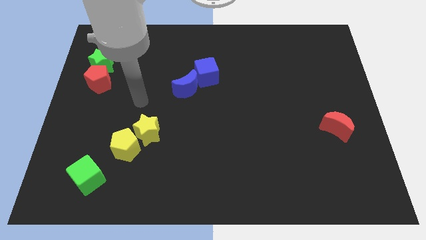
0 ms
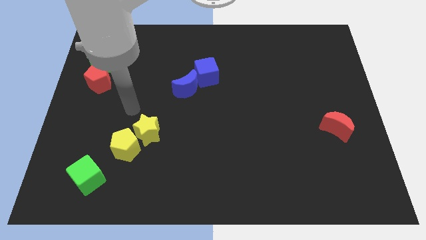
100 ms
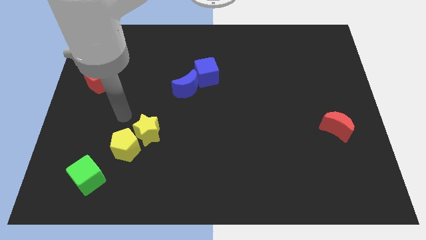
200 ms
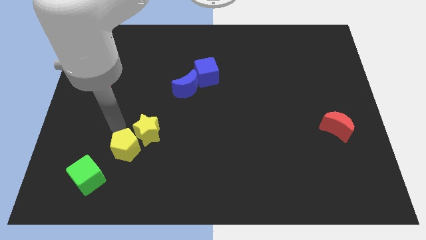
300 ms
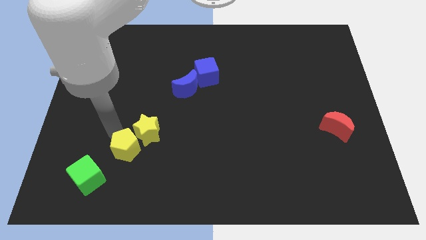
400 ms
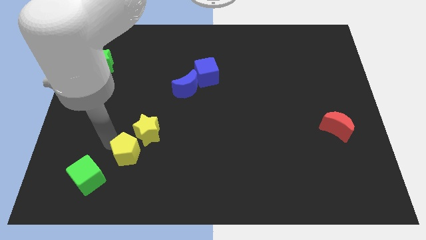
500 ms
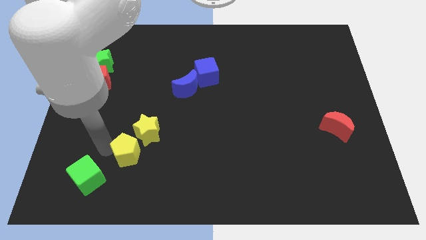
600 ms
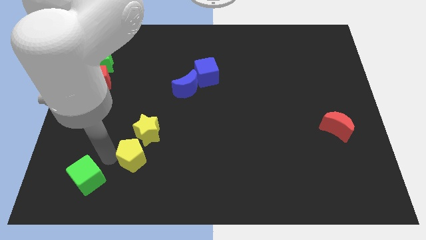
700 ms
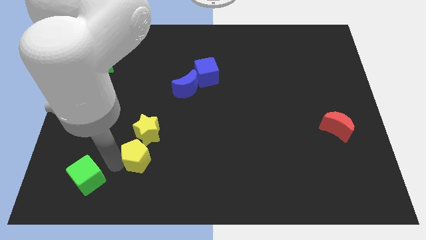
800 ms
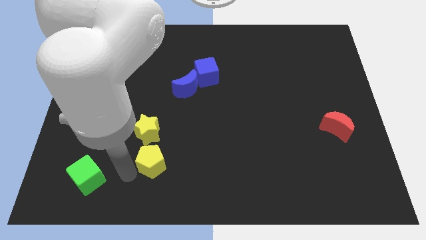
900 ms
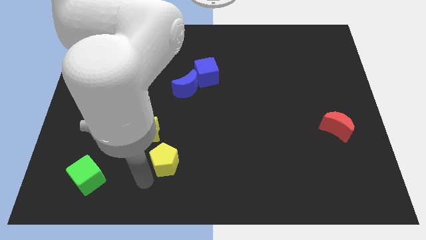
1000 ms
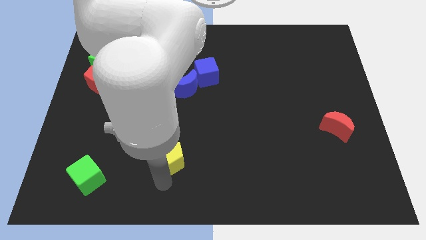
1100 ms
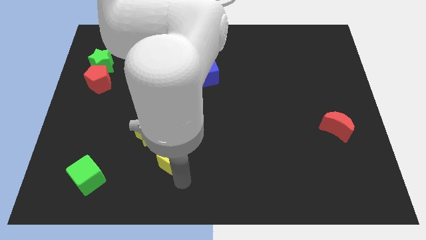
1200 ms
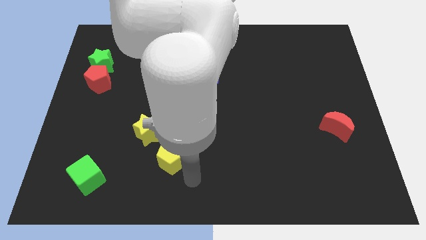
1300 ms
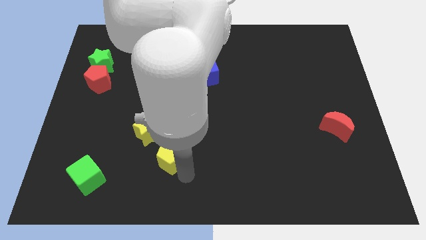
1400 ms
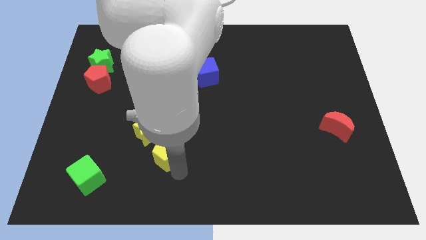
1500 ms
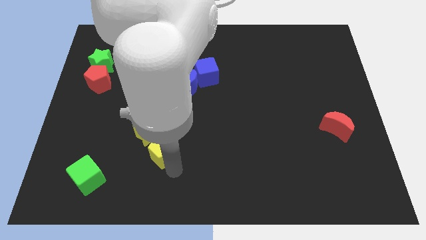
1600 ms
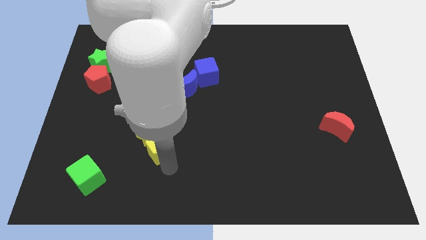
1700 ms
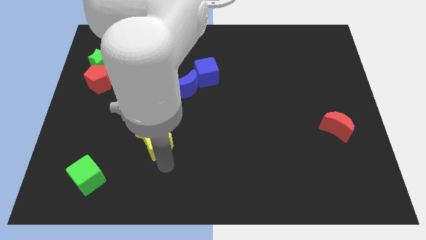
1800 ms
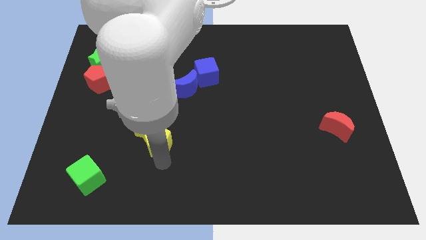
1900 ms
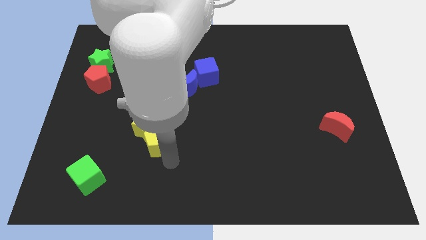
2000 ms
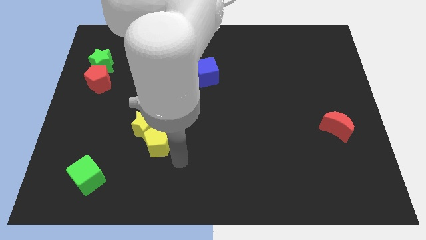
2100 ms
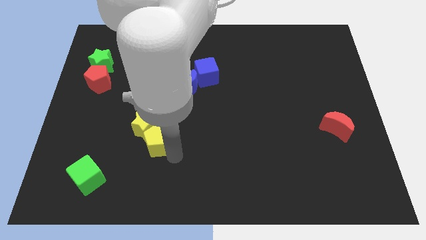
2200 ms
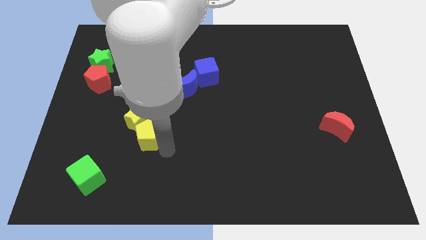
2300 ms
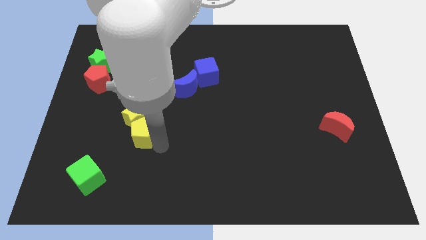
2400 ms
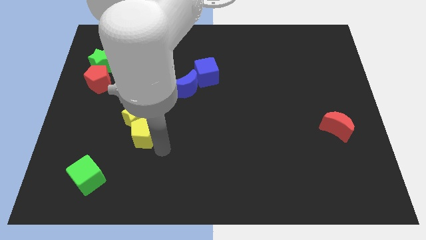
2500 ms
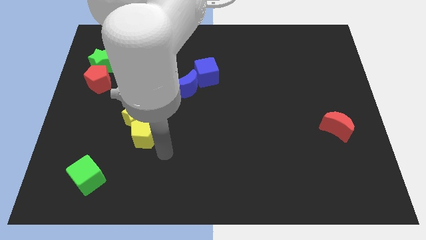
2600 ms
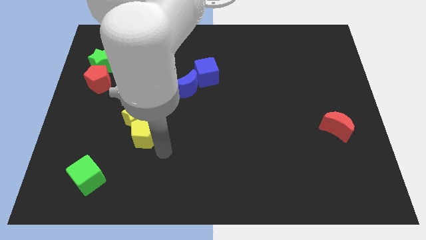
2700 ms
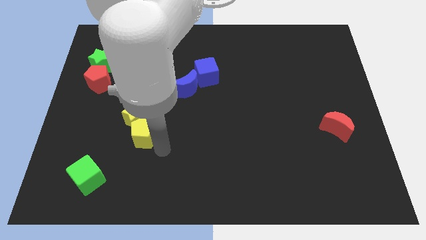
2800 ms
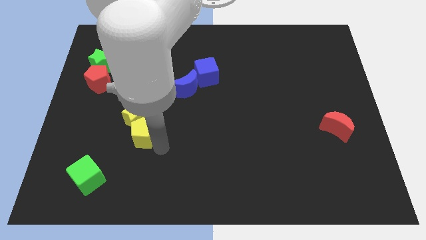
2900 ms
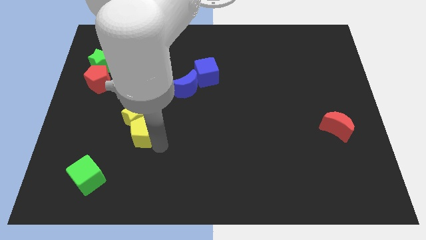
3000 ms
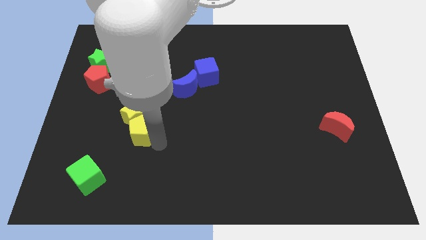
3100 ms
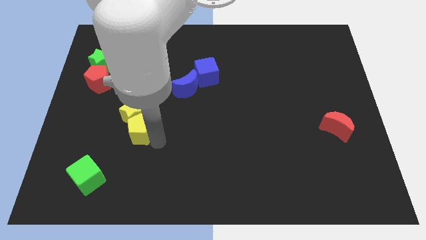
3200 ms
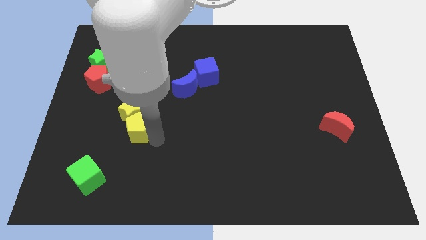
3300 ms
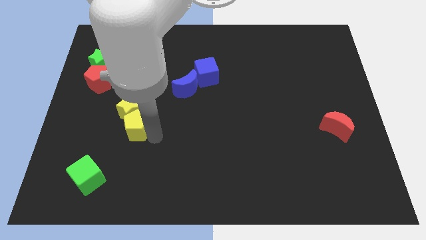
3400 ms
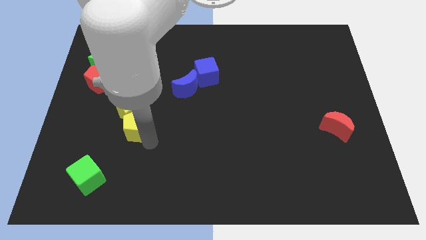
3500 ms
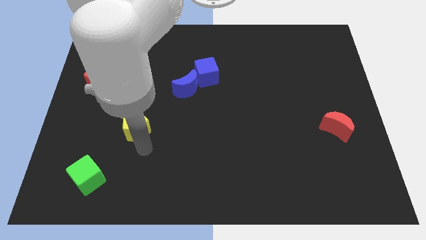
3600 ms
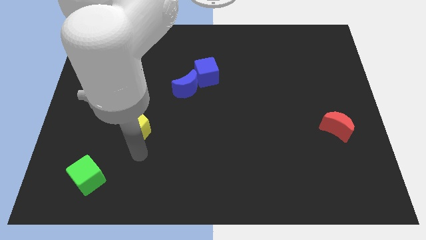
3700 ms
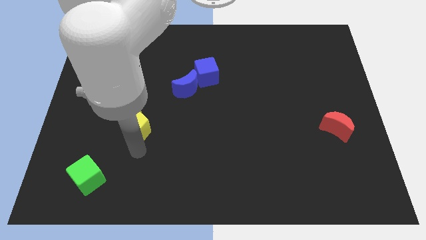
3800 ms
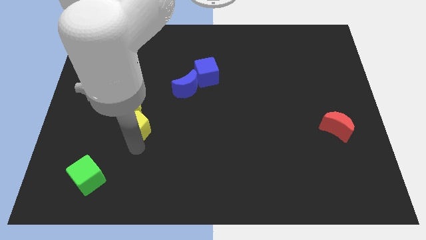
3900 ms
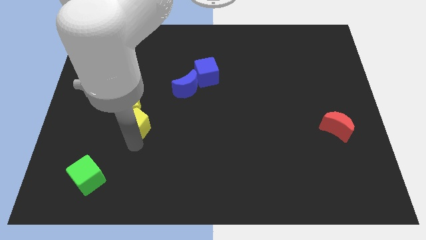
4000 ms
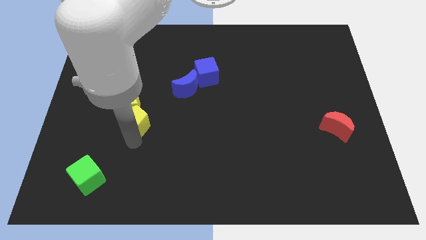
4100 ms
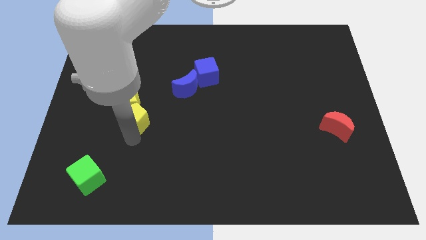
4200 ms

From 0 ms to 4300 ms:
slightly slide the yellow pentagon up

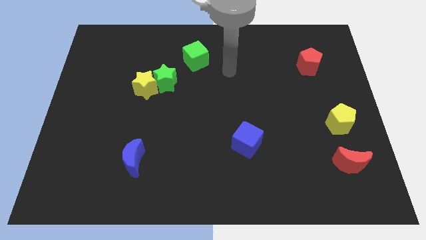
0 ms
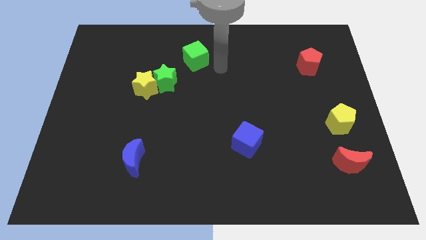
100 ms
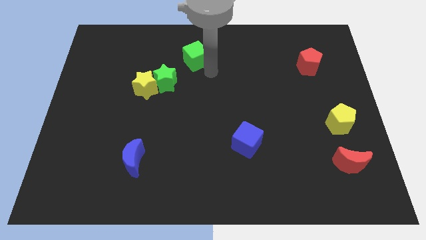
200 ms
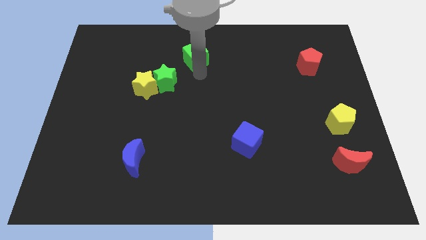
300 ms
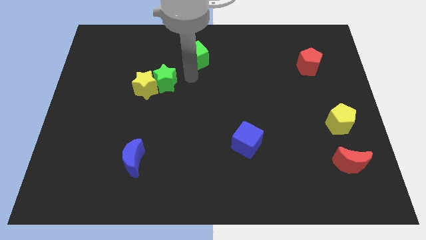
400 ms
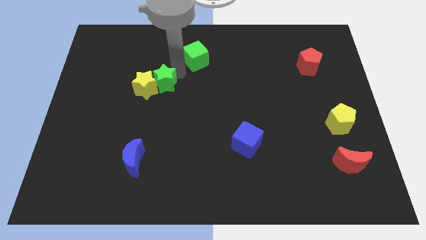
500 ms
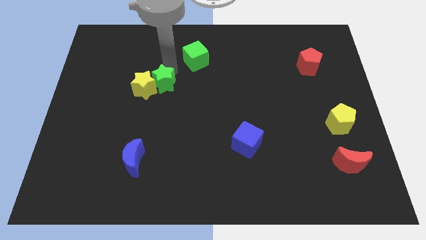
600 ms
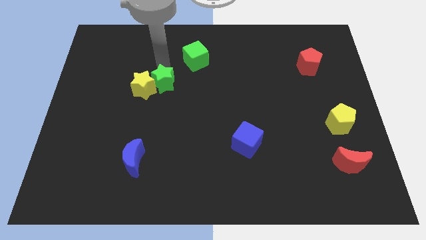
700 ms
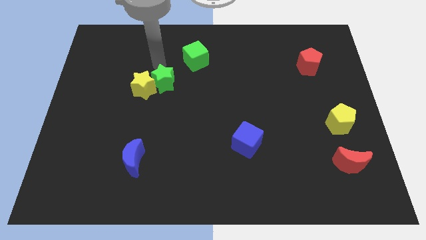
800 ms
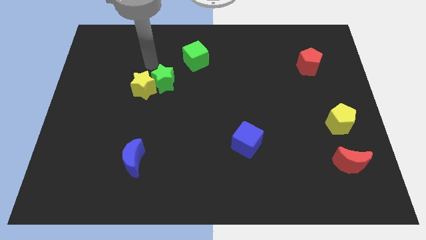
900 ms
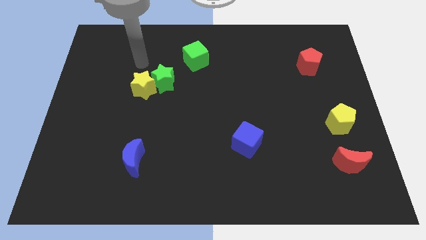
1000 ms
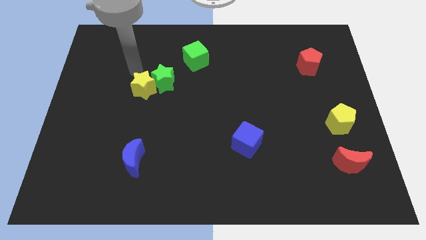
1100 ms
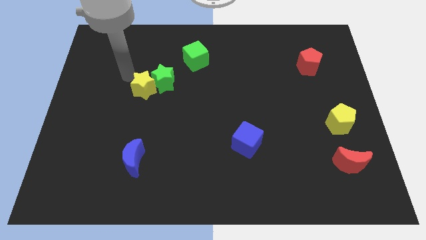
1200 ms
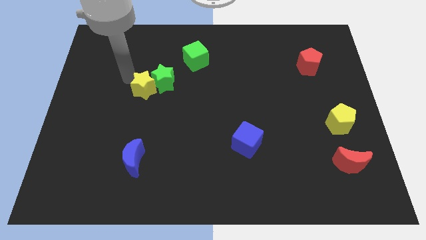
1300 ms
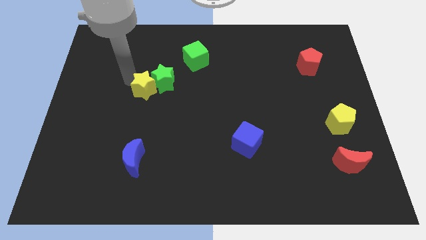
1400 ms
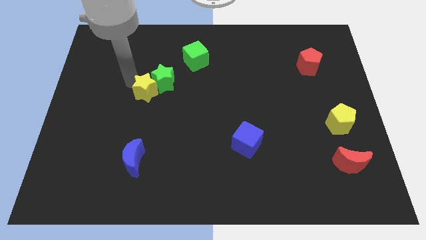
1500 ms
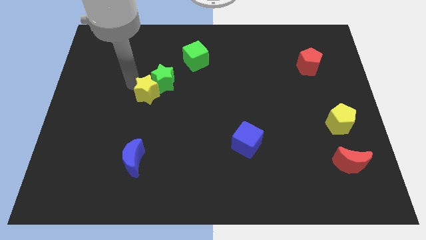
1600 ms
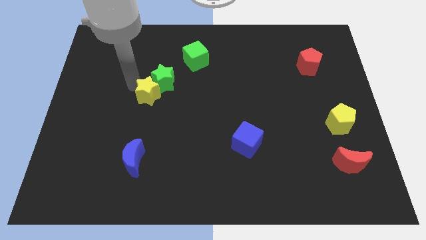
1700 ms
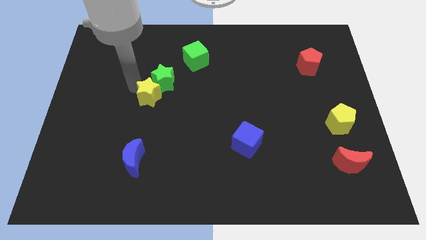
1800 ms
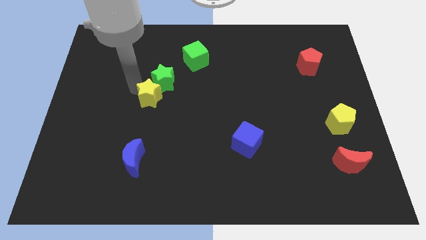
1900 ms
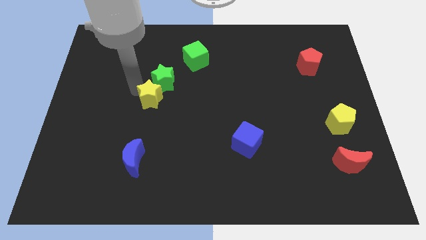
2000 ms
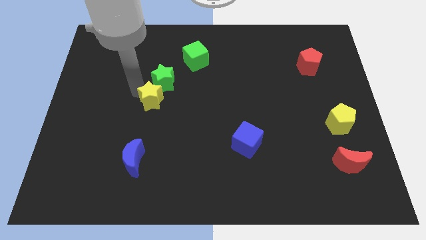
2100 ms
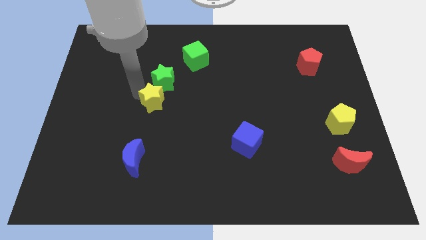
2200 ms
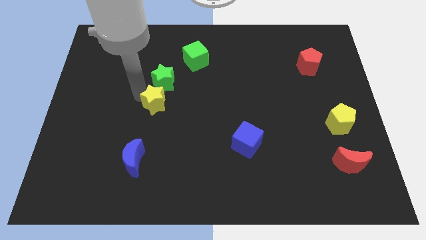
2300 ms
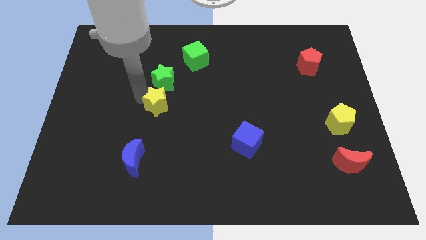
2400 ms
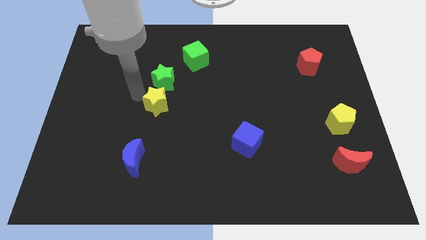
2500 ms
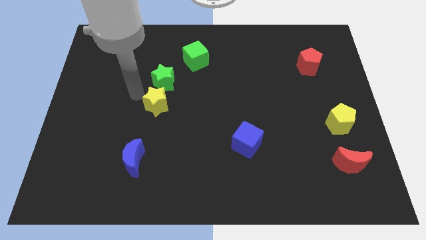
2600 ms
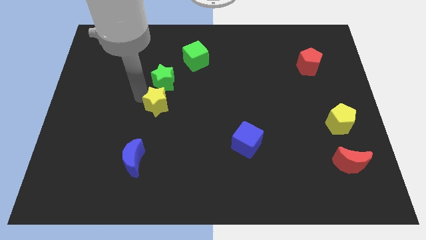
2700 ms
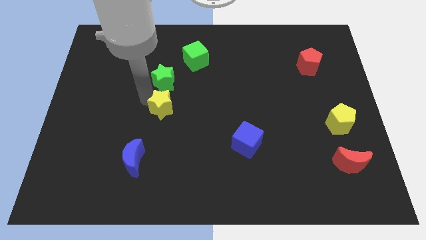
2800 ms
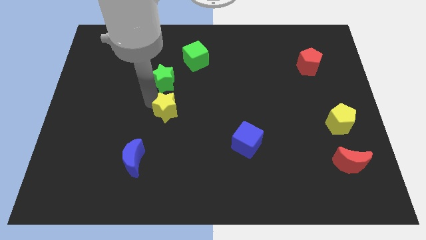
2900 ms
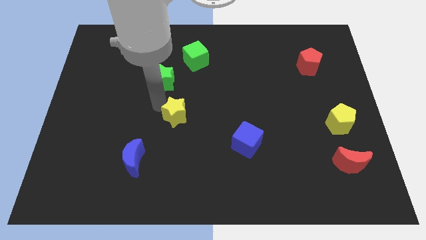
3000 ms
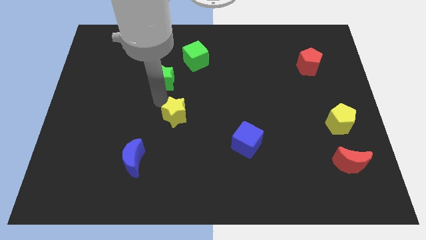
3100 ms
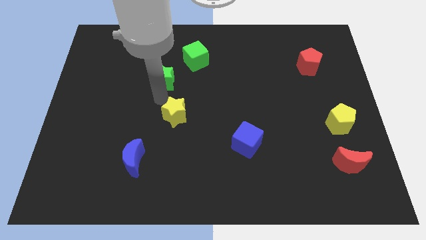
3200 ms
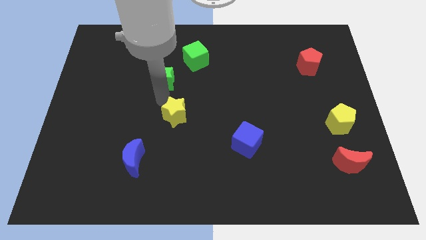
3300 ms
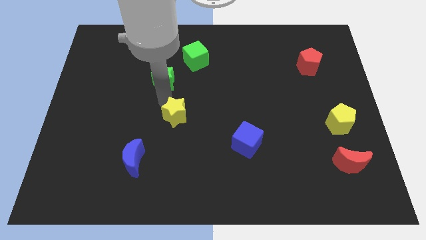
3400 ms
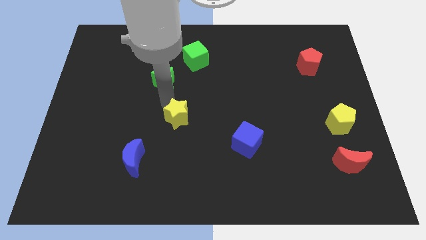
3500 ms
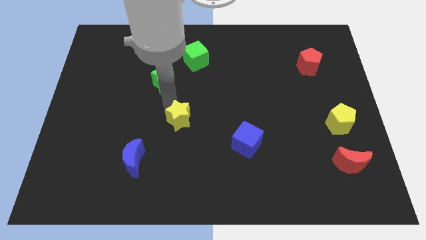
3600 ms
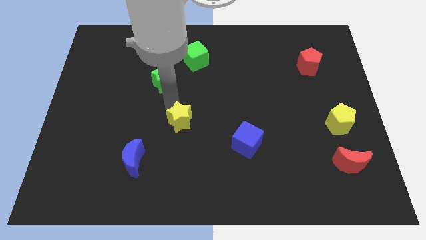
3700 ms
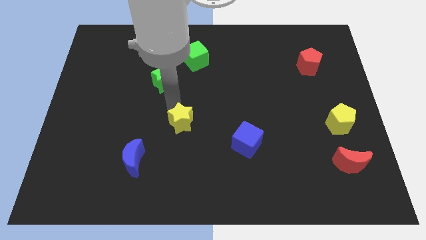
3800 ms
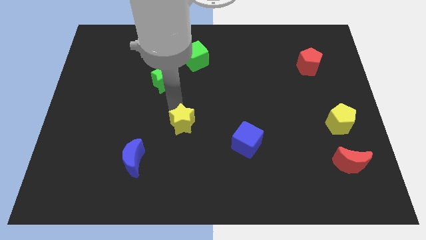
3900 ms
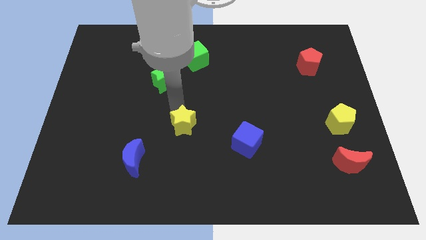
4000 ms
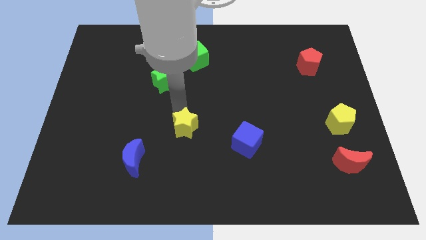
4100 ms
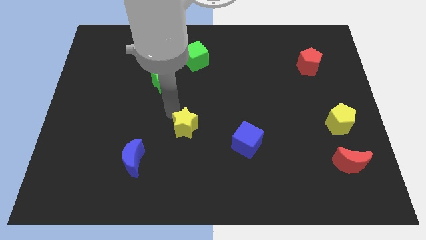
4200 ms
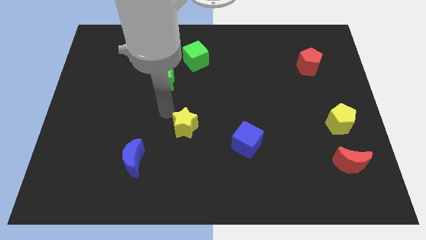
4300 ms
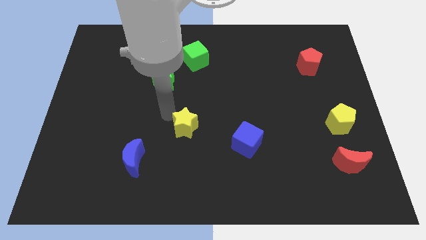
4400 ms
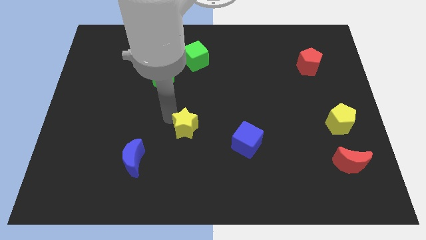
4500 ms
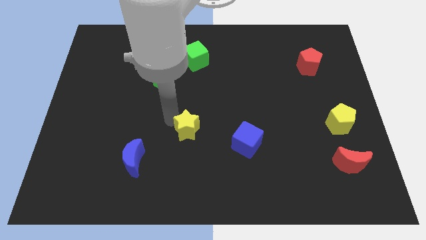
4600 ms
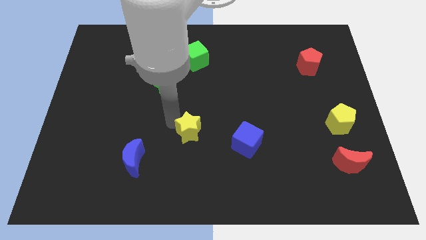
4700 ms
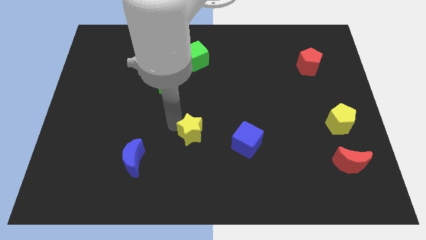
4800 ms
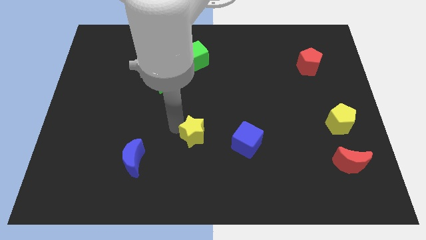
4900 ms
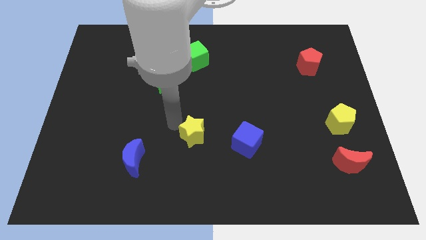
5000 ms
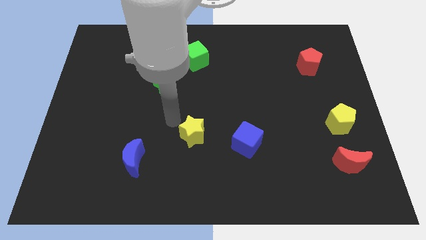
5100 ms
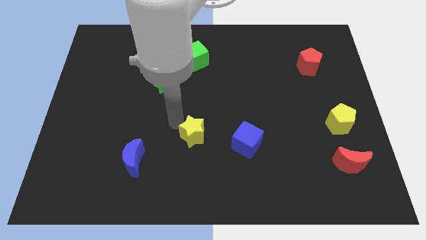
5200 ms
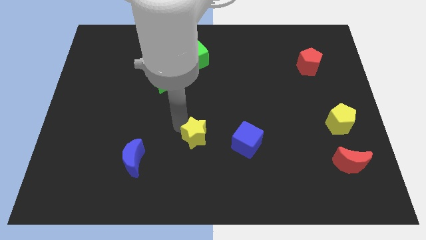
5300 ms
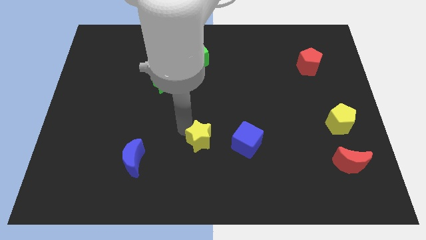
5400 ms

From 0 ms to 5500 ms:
slide the yellow star downwards and to the right diagonally
